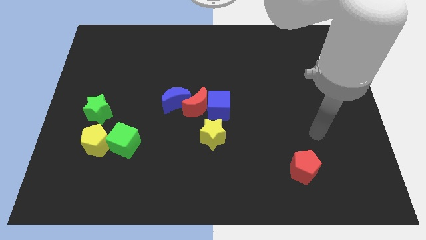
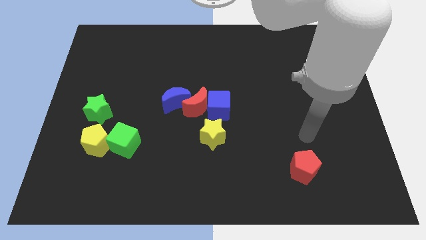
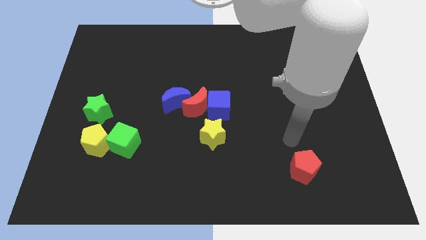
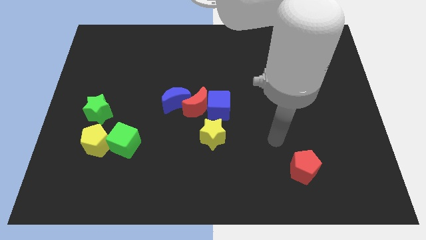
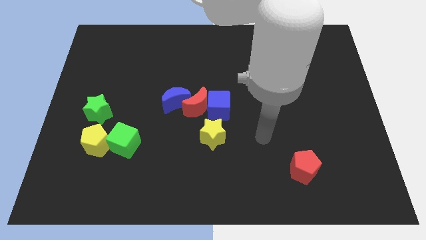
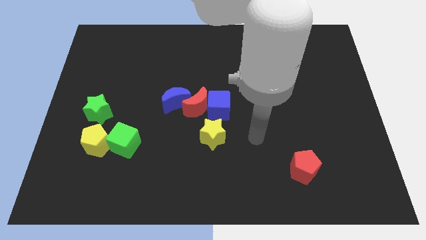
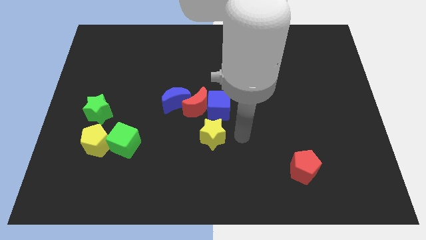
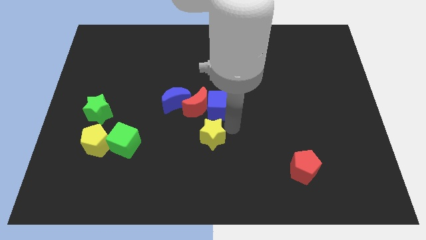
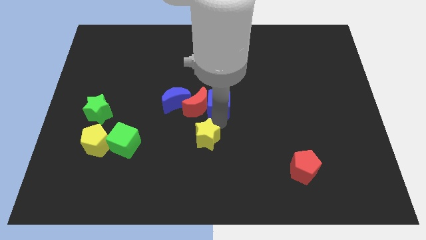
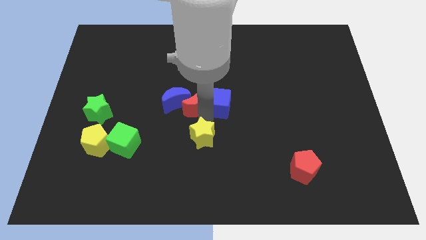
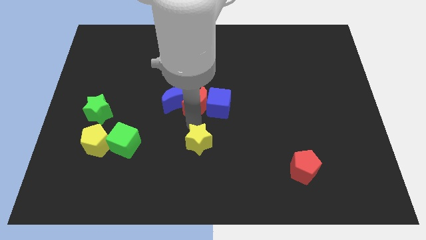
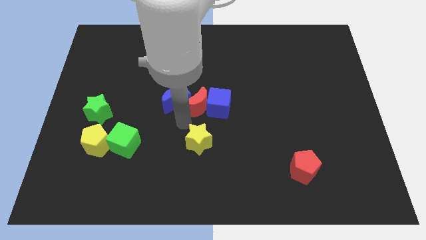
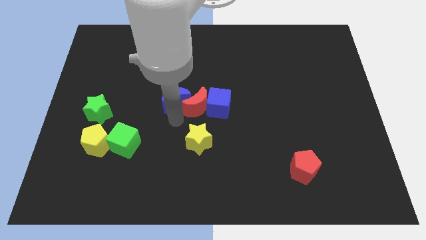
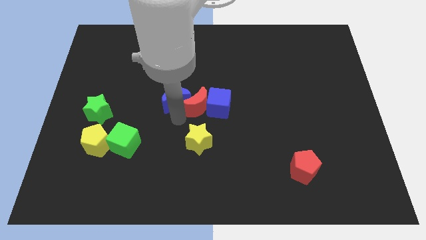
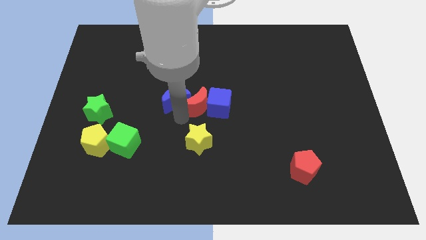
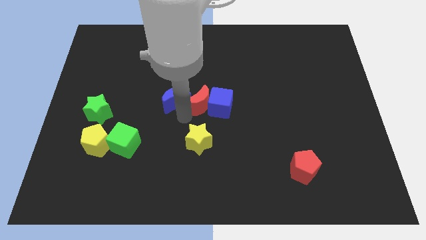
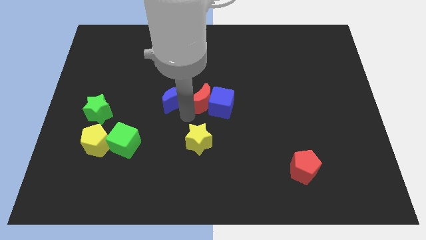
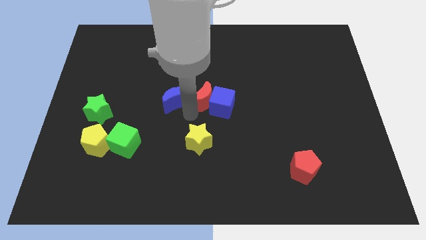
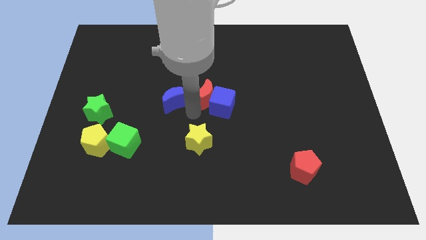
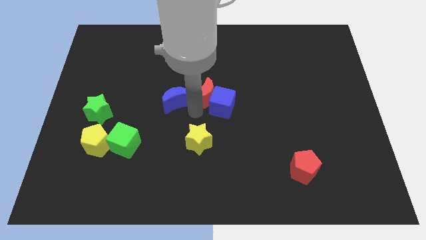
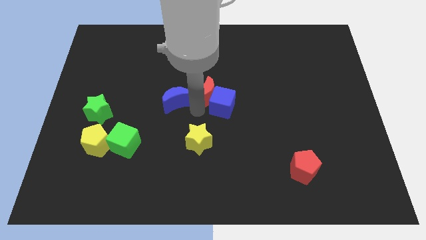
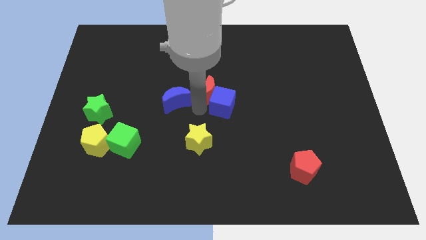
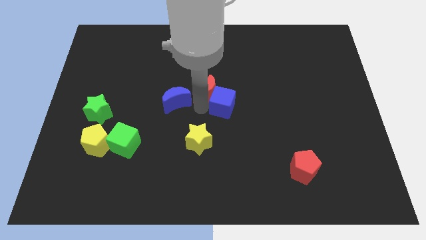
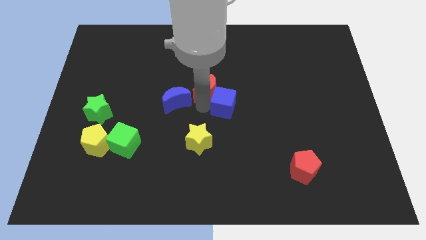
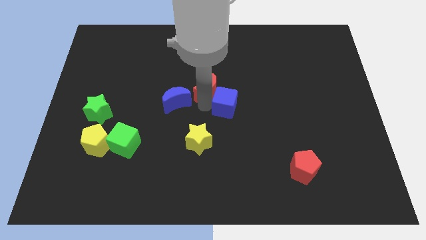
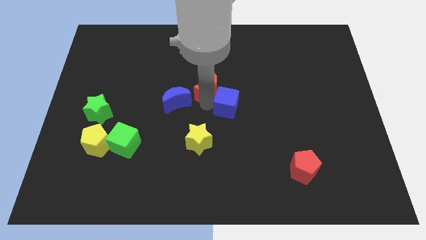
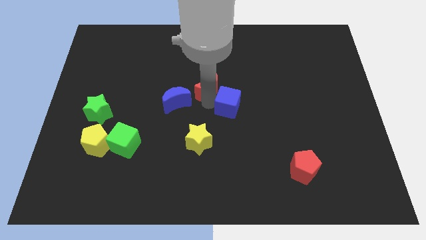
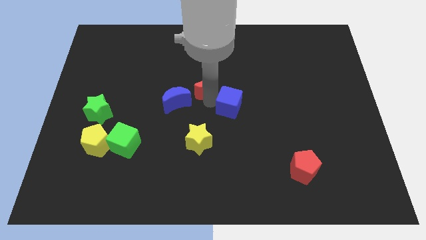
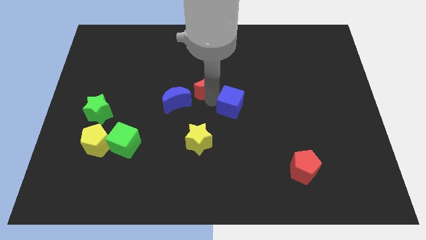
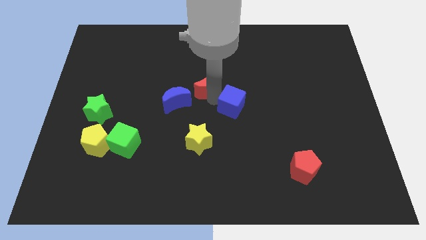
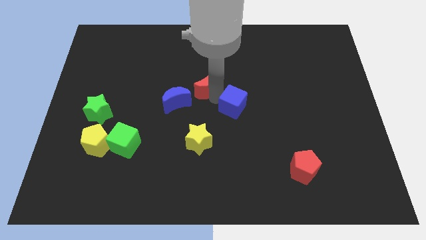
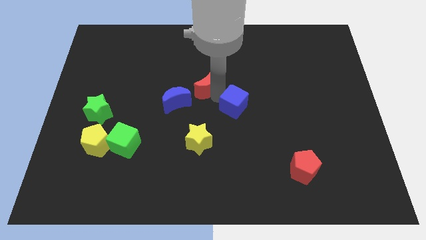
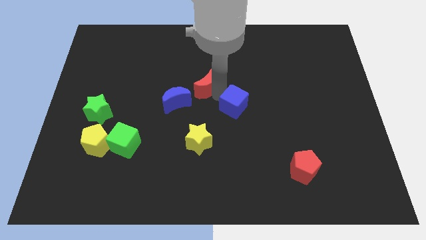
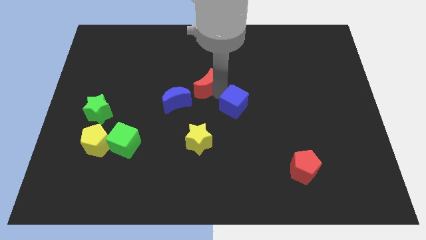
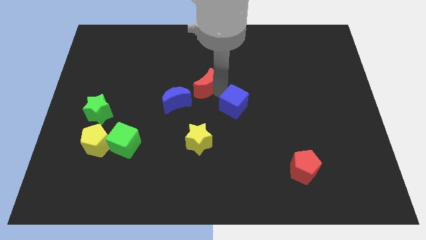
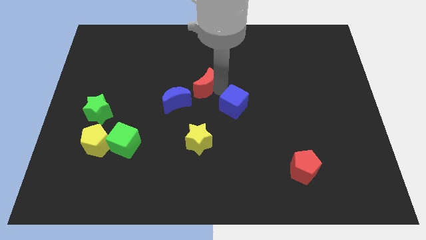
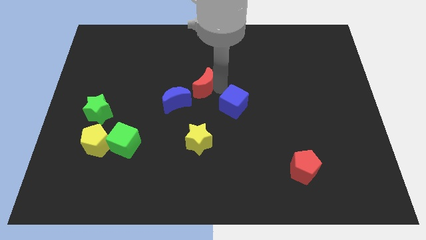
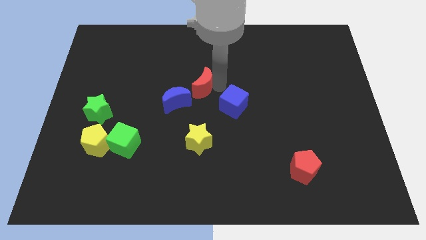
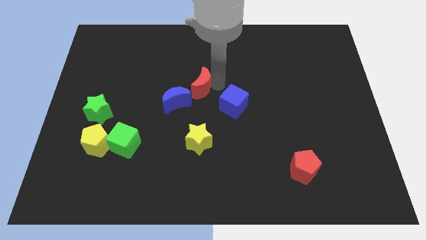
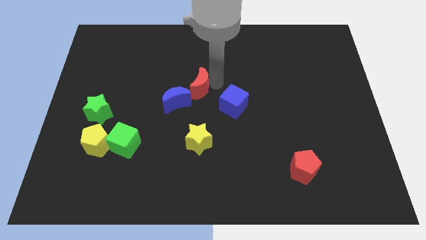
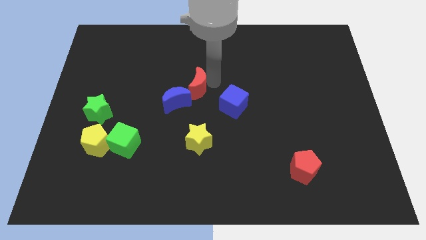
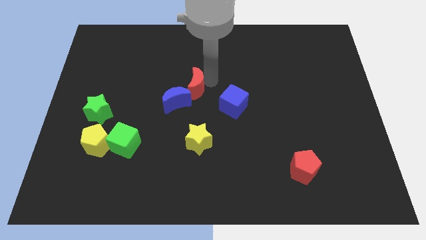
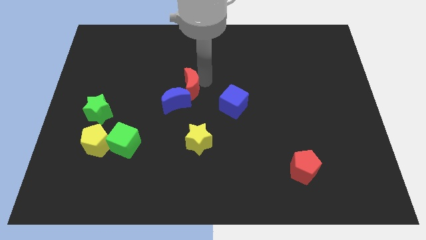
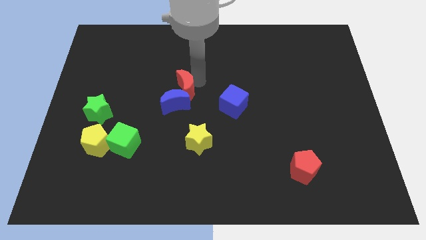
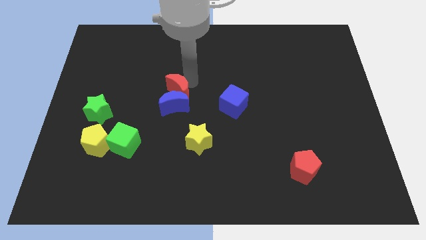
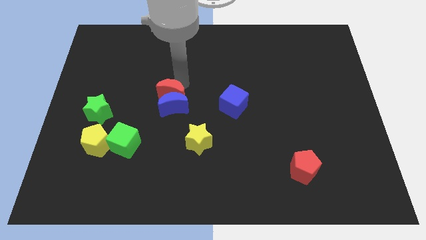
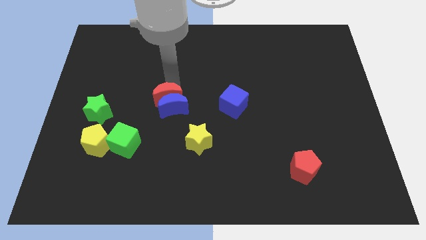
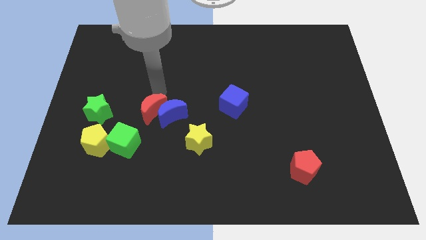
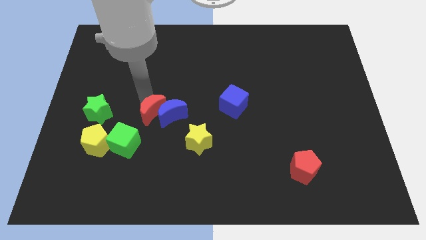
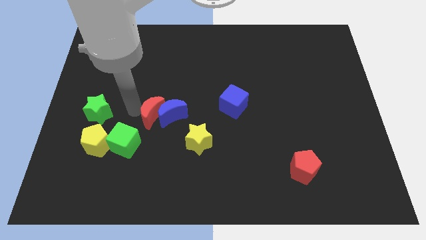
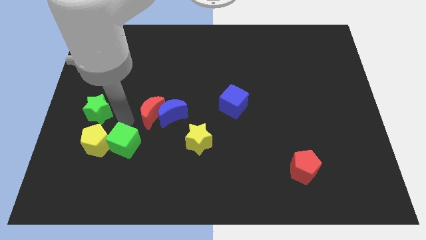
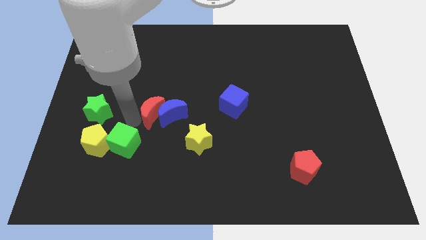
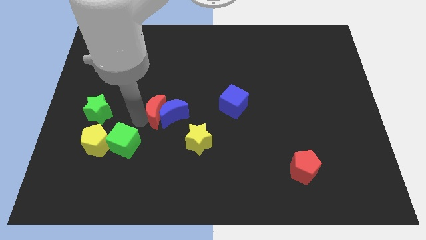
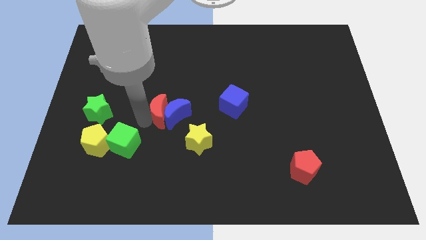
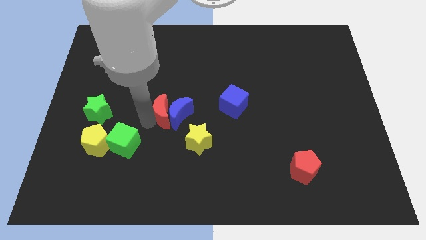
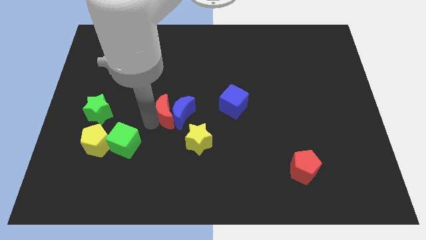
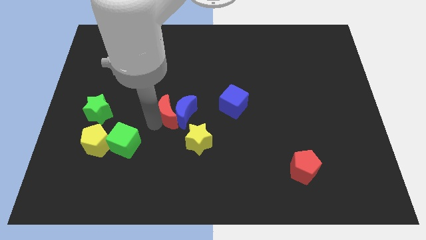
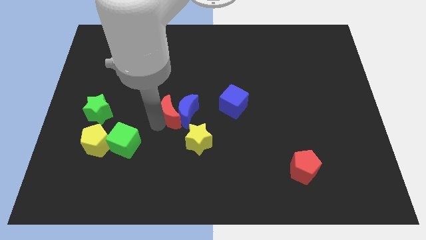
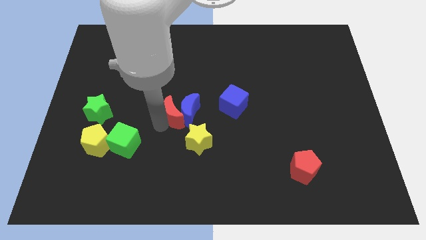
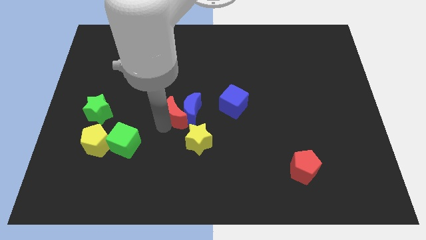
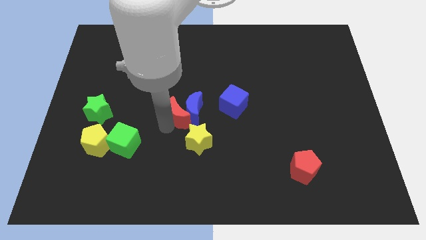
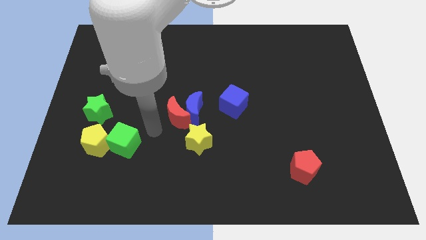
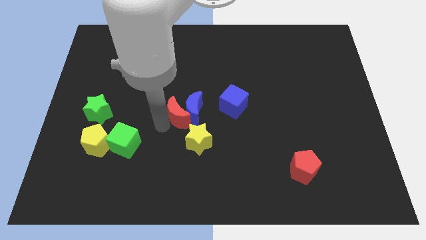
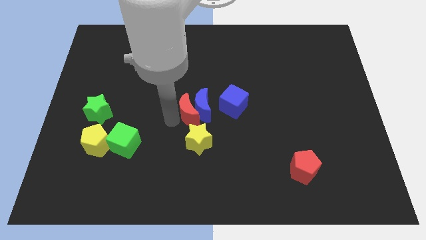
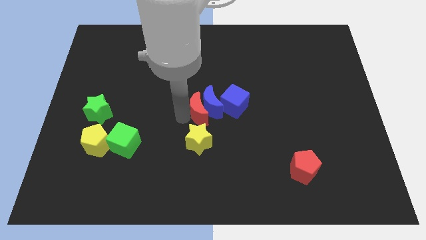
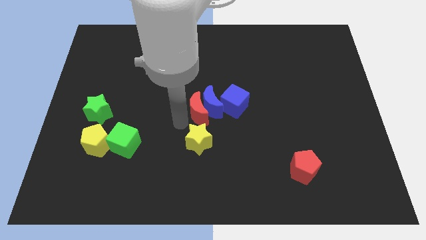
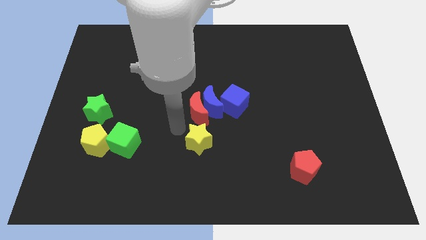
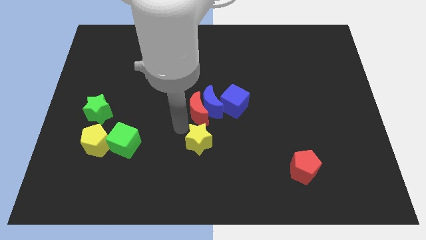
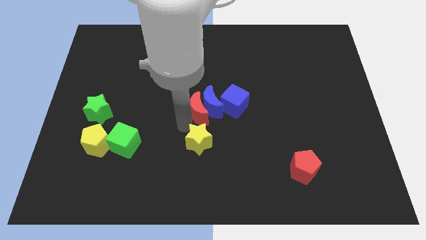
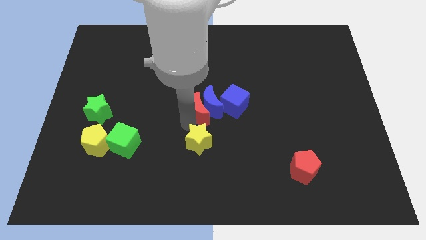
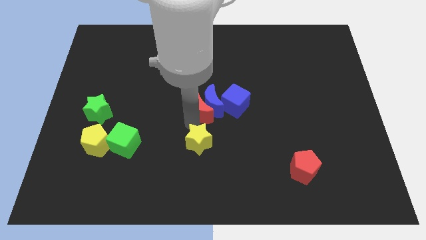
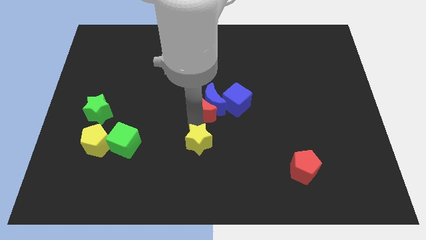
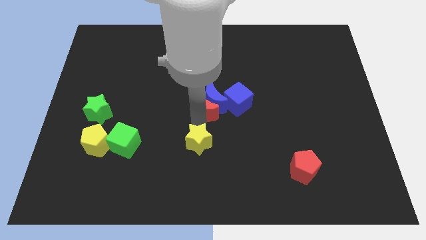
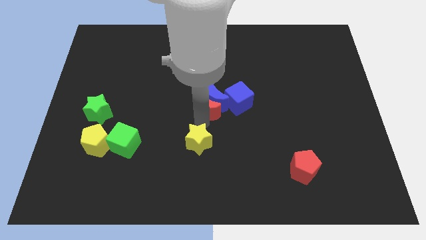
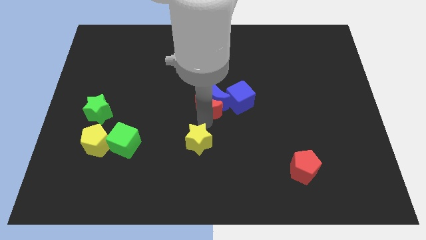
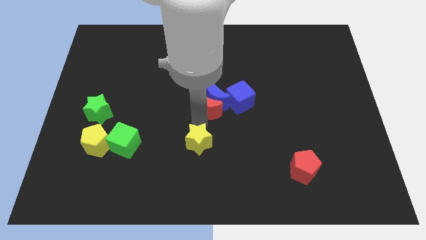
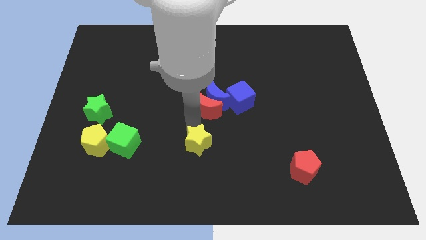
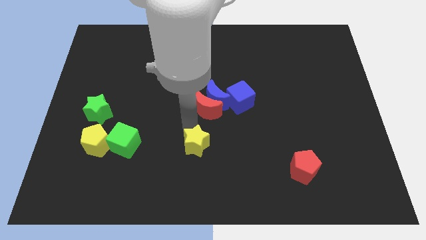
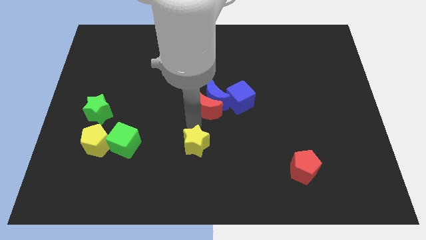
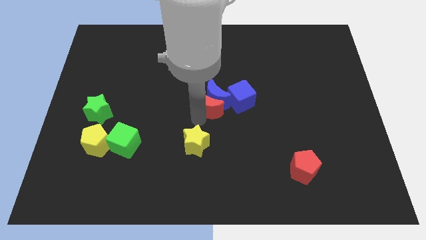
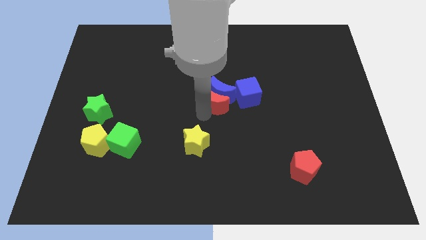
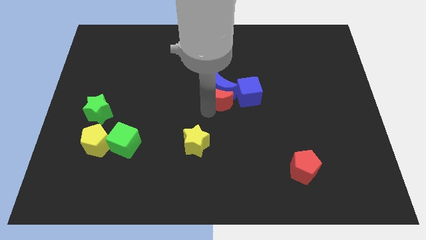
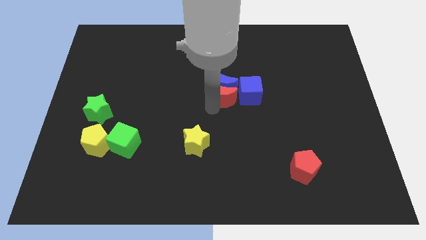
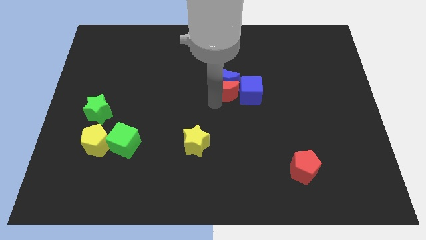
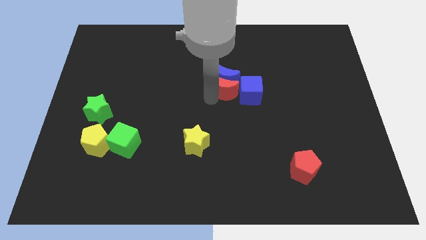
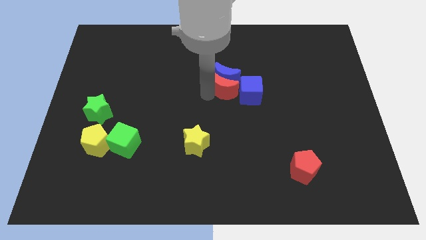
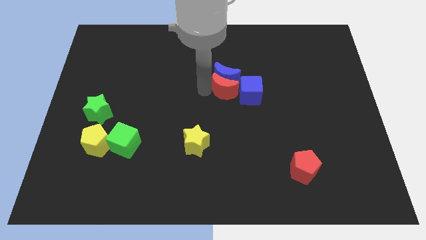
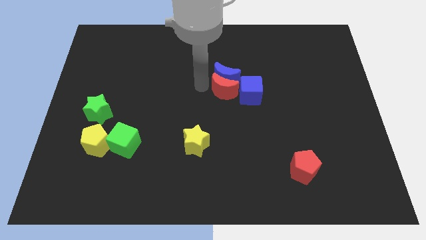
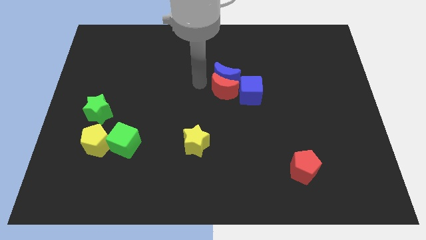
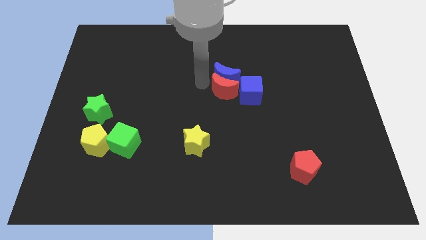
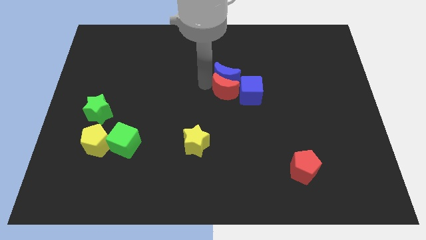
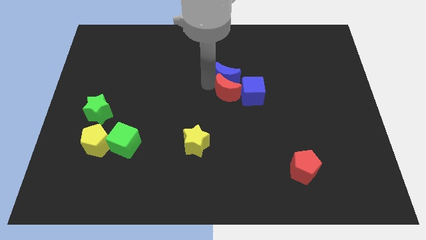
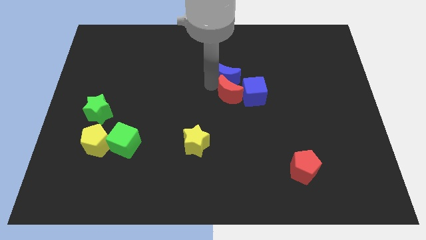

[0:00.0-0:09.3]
push the red moon right somewhat
